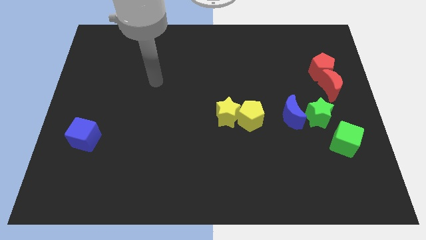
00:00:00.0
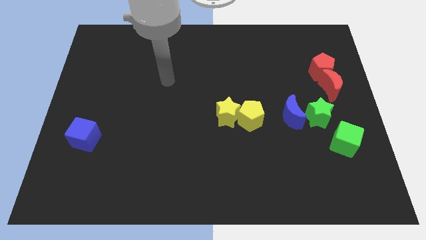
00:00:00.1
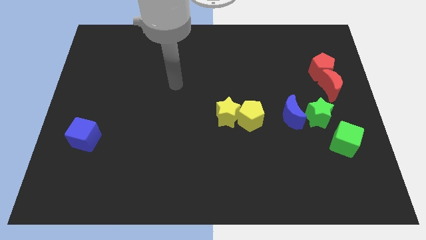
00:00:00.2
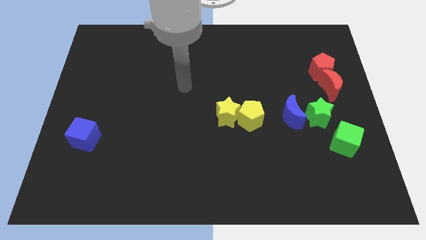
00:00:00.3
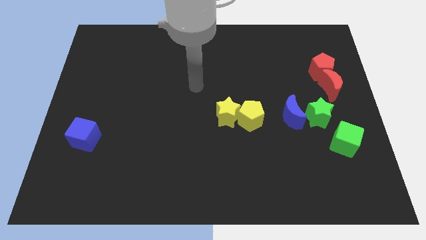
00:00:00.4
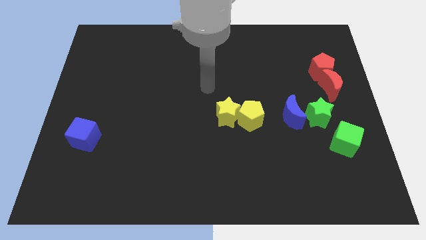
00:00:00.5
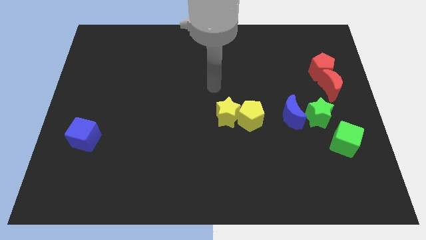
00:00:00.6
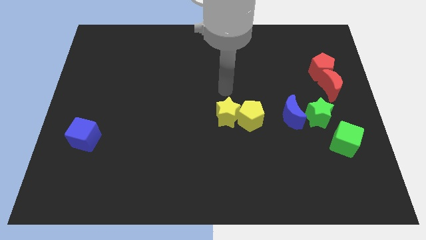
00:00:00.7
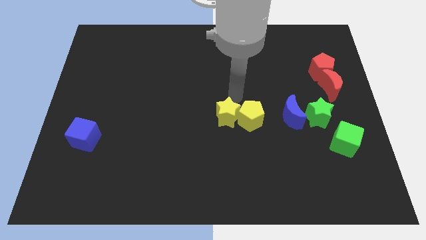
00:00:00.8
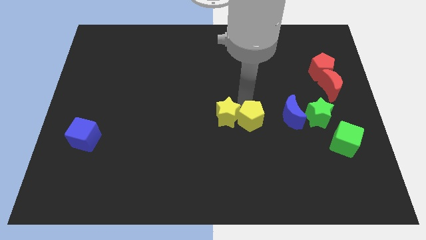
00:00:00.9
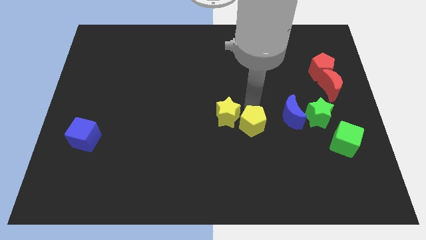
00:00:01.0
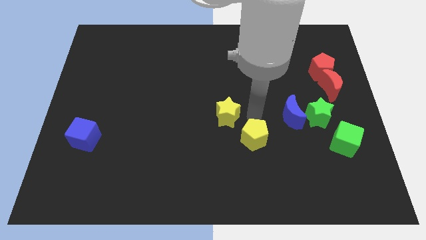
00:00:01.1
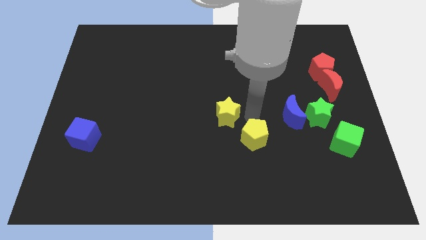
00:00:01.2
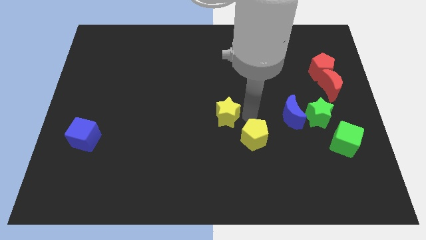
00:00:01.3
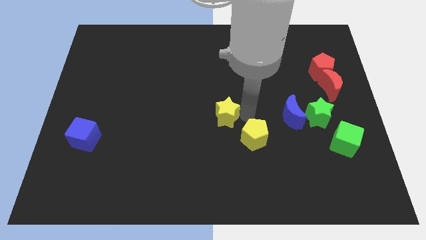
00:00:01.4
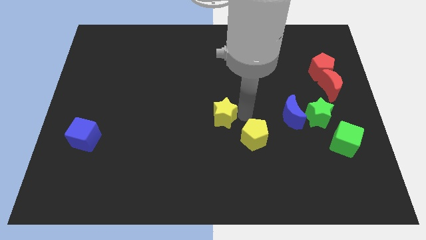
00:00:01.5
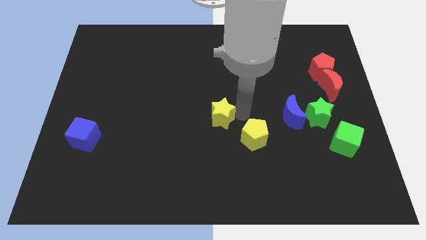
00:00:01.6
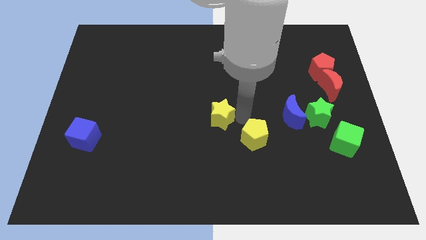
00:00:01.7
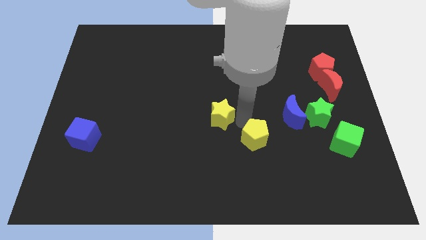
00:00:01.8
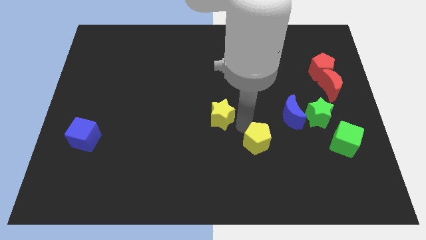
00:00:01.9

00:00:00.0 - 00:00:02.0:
move the yellow star away from the yellow pentagon

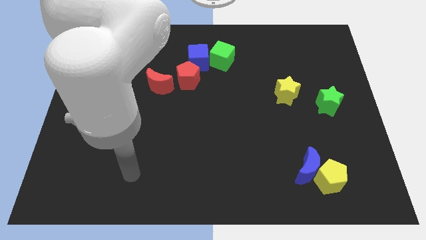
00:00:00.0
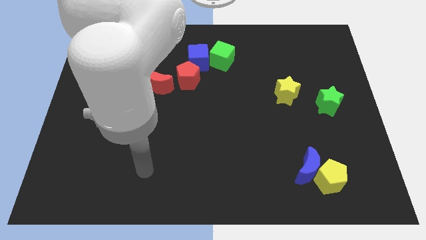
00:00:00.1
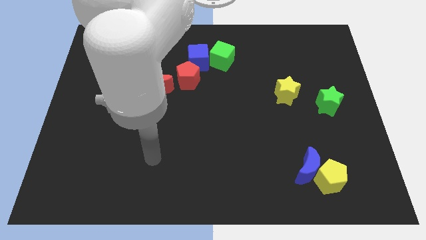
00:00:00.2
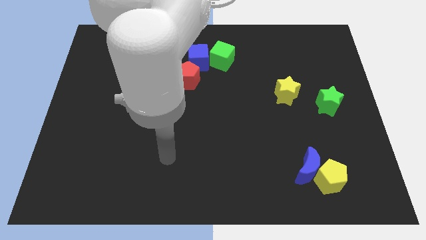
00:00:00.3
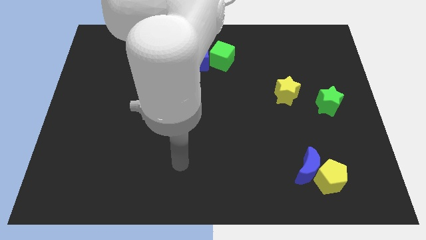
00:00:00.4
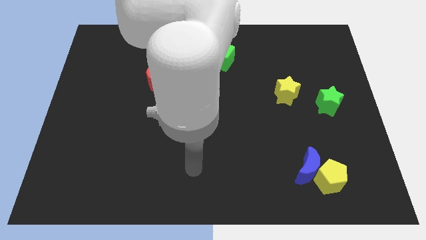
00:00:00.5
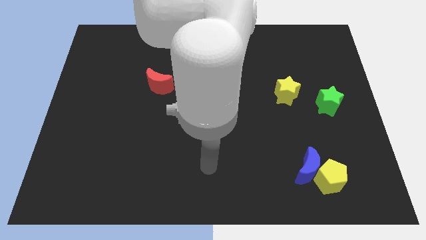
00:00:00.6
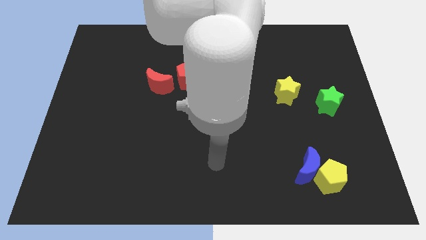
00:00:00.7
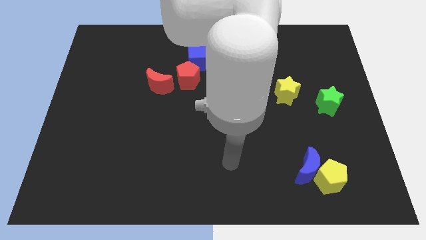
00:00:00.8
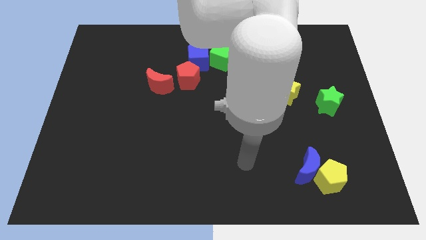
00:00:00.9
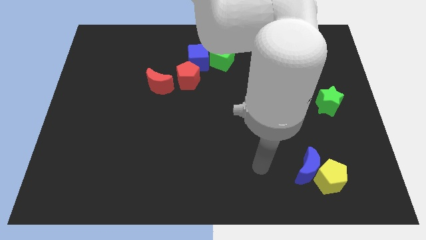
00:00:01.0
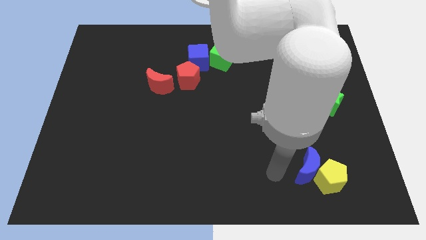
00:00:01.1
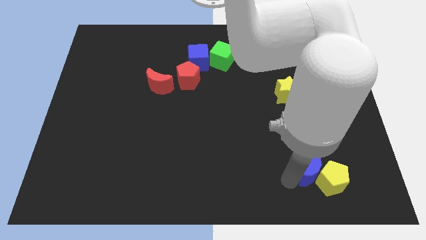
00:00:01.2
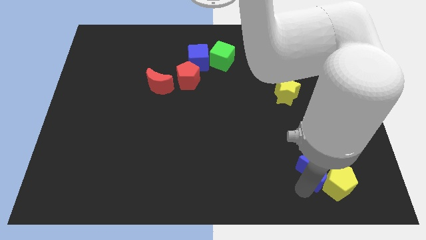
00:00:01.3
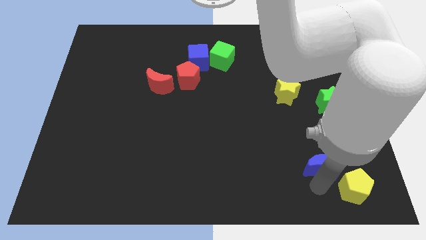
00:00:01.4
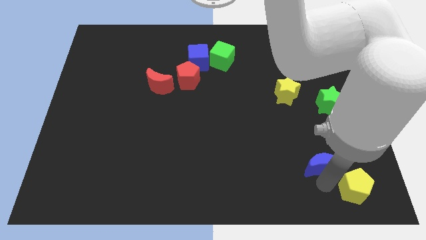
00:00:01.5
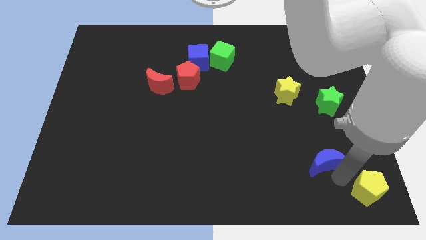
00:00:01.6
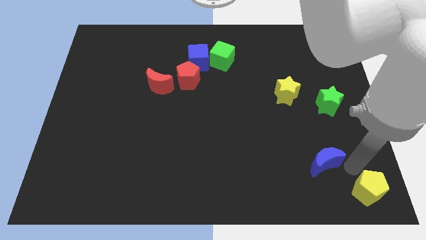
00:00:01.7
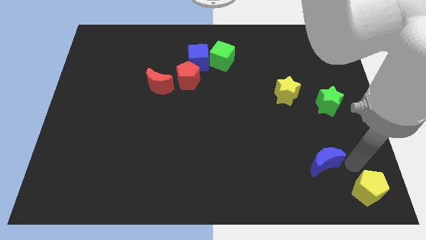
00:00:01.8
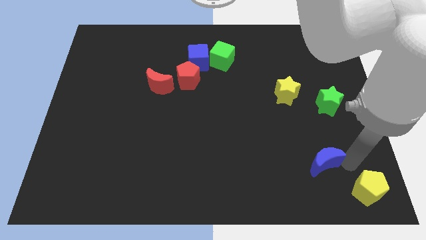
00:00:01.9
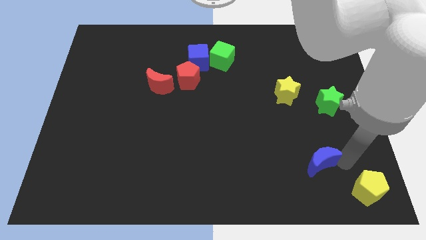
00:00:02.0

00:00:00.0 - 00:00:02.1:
separate the blue moon from the yellow pentagon

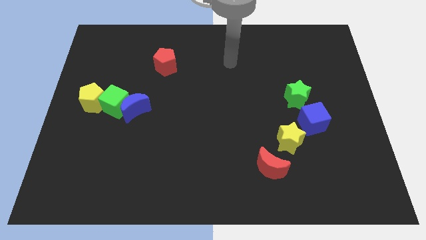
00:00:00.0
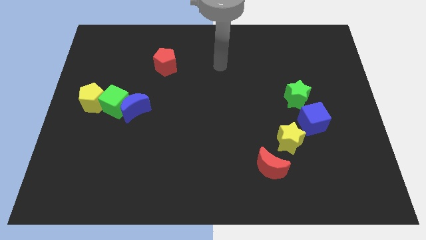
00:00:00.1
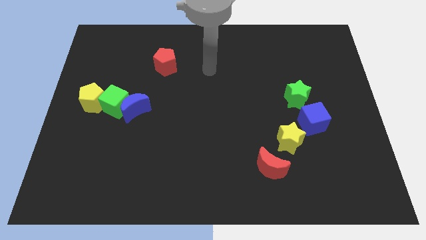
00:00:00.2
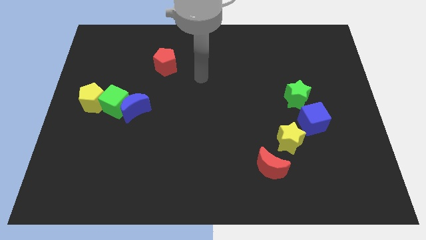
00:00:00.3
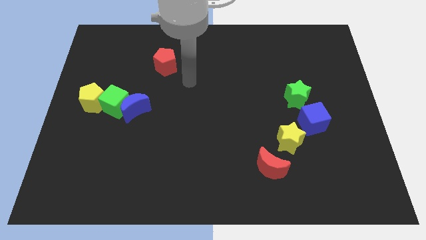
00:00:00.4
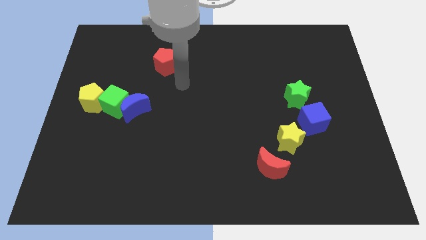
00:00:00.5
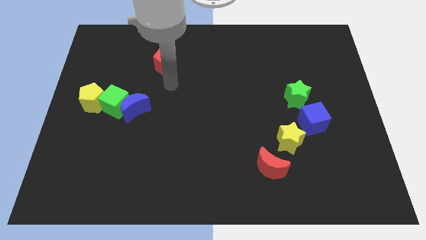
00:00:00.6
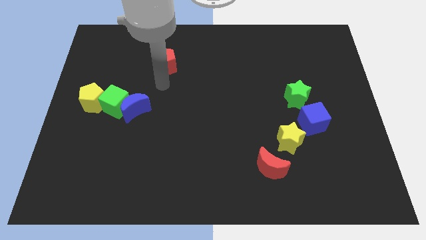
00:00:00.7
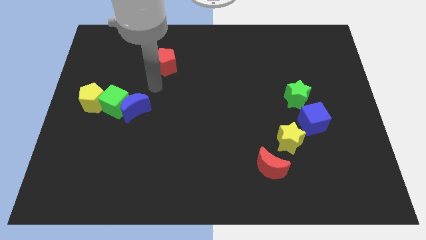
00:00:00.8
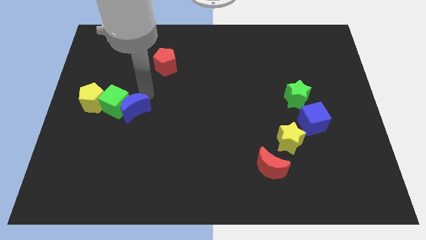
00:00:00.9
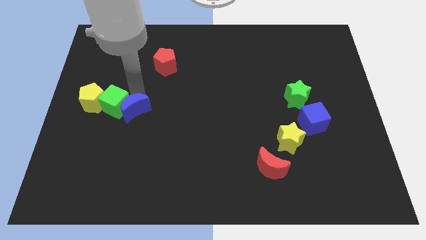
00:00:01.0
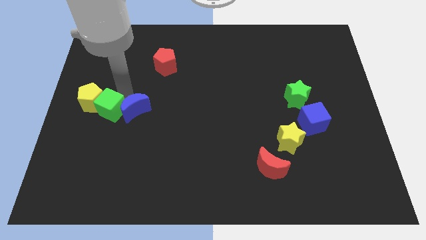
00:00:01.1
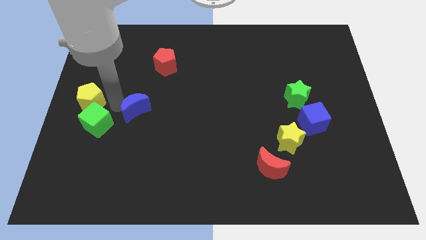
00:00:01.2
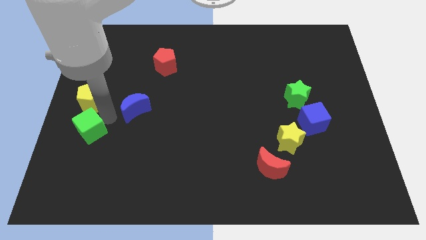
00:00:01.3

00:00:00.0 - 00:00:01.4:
pull the blue moon apart from the green cube

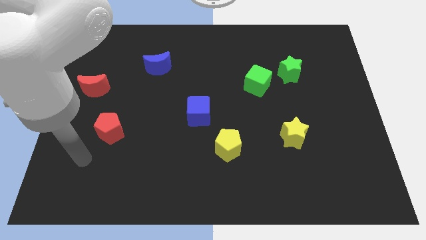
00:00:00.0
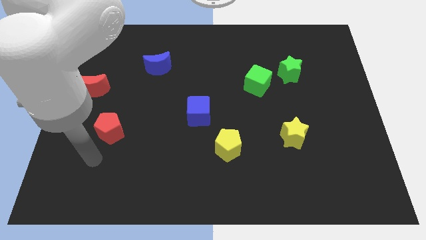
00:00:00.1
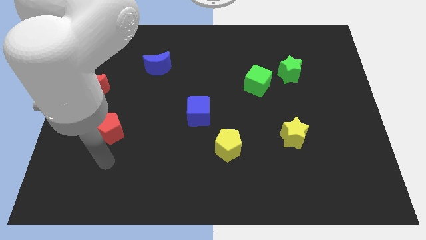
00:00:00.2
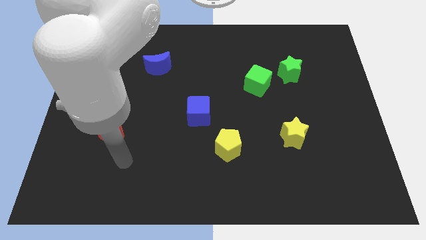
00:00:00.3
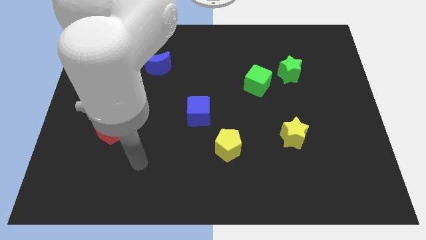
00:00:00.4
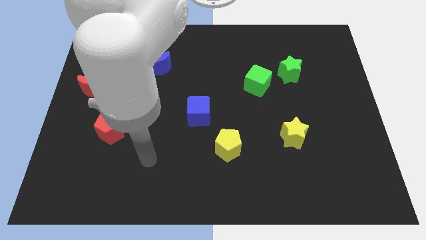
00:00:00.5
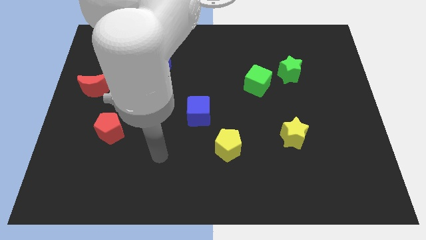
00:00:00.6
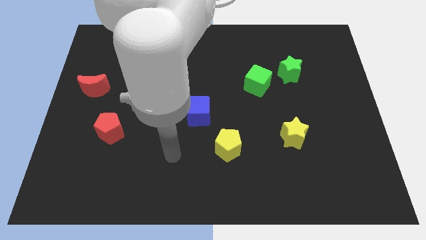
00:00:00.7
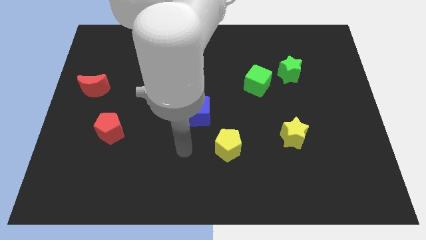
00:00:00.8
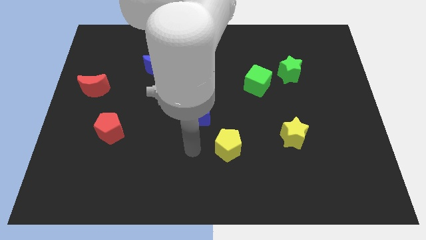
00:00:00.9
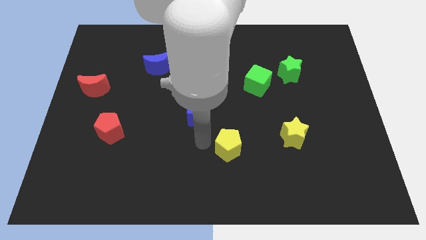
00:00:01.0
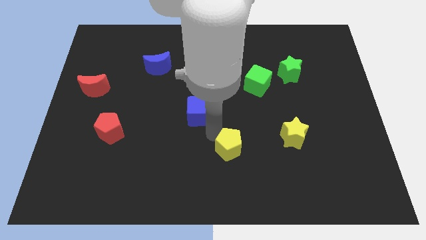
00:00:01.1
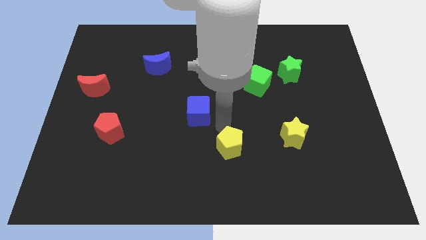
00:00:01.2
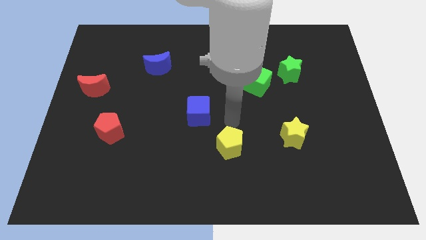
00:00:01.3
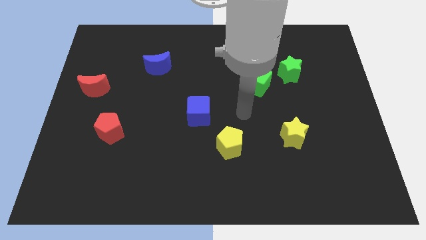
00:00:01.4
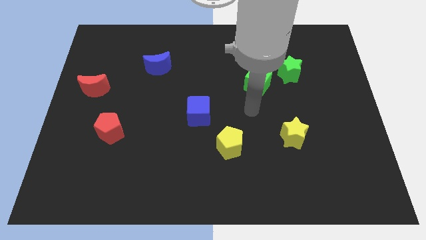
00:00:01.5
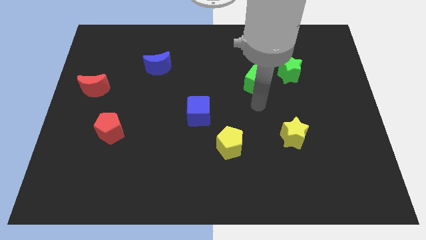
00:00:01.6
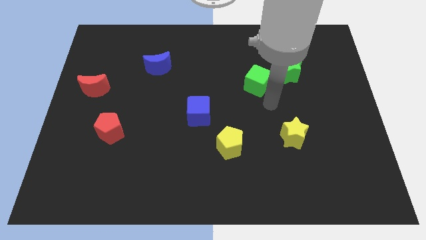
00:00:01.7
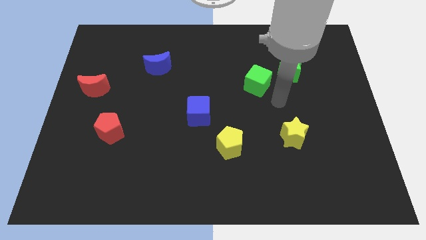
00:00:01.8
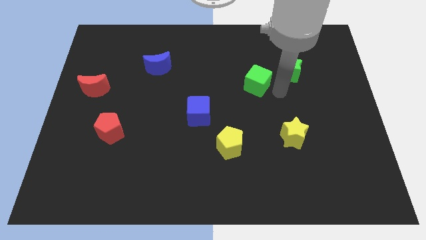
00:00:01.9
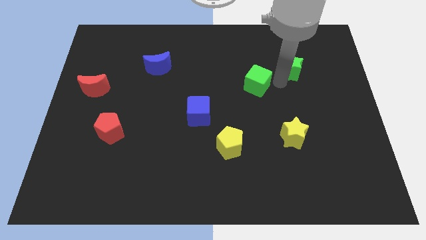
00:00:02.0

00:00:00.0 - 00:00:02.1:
pull the green cube apart from the green star

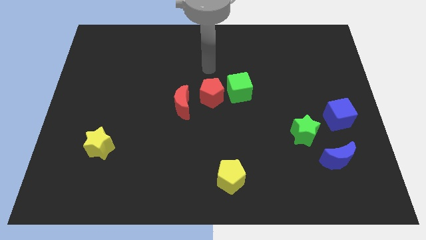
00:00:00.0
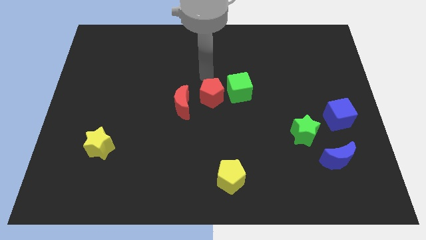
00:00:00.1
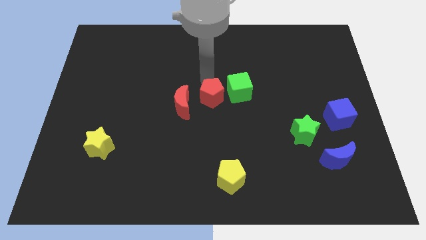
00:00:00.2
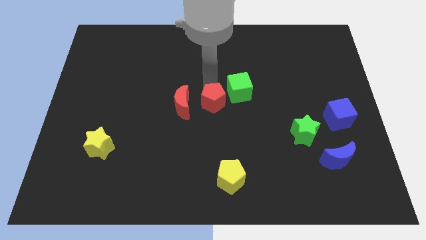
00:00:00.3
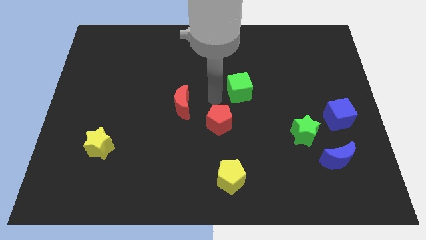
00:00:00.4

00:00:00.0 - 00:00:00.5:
pull the green cube apart from the red pentagon

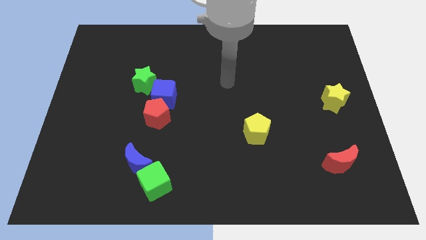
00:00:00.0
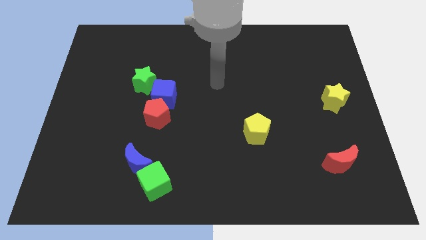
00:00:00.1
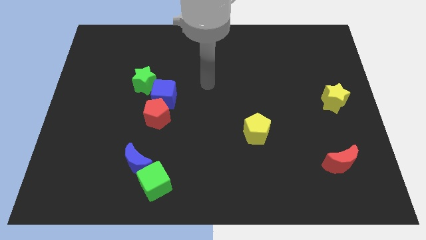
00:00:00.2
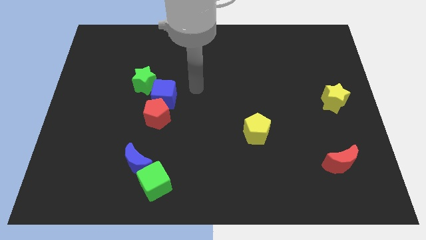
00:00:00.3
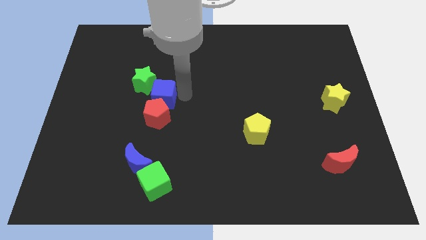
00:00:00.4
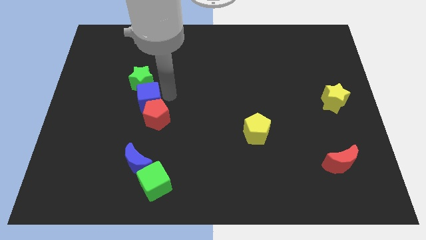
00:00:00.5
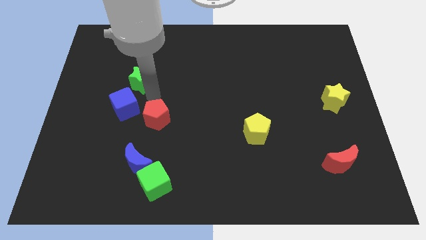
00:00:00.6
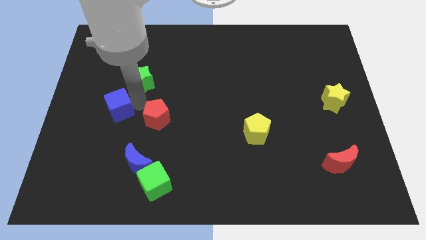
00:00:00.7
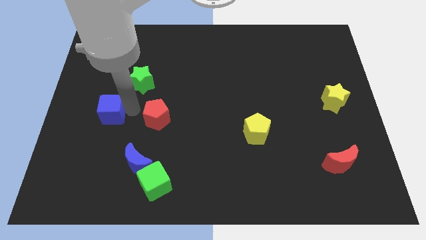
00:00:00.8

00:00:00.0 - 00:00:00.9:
separate the red pentagon from the blue cube

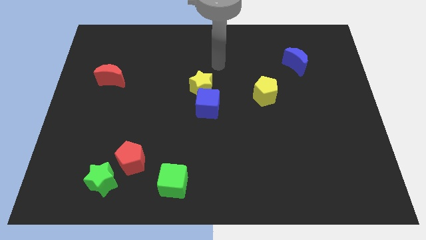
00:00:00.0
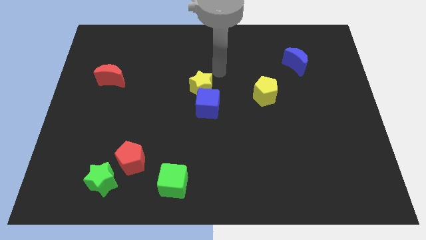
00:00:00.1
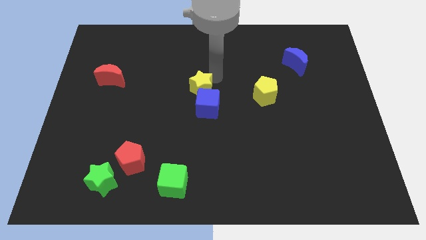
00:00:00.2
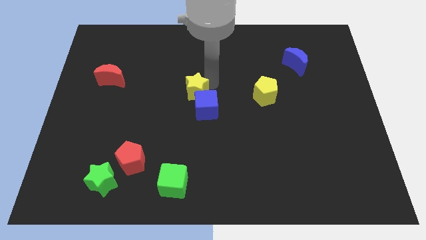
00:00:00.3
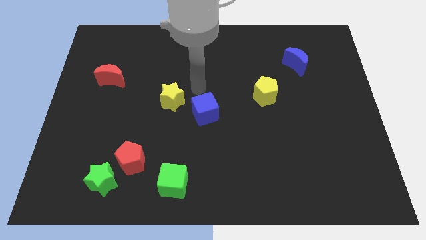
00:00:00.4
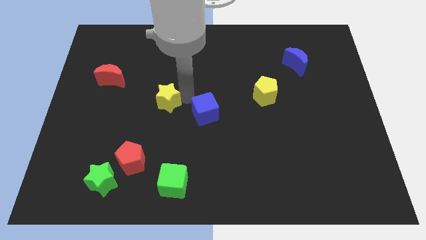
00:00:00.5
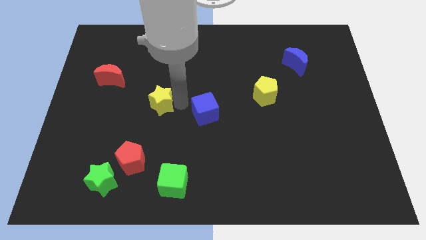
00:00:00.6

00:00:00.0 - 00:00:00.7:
move the blue cube away from the yellow star
